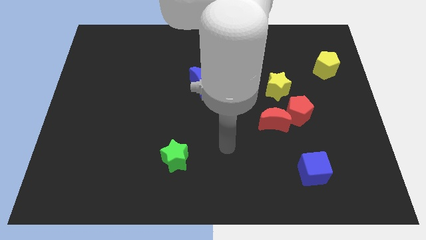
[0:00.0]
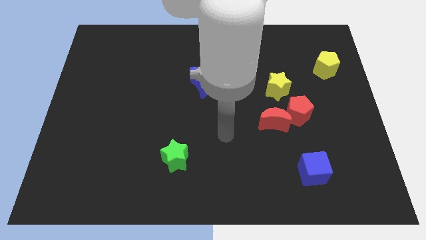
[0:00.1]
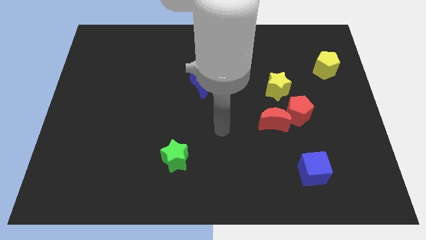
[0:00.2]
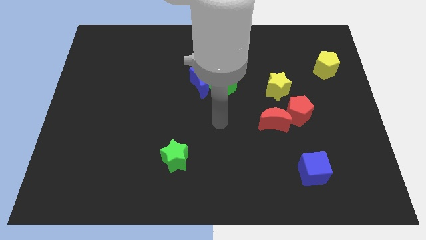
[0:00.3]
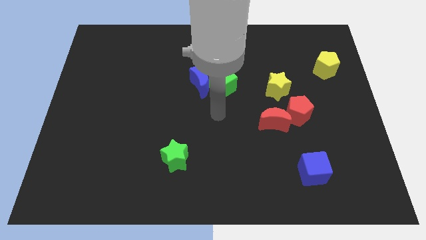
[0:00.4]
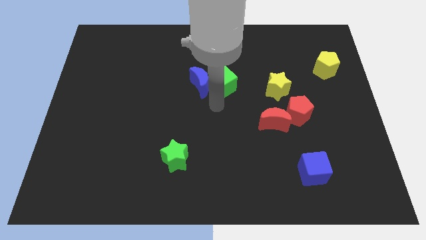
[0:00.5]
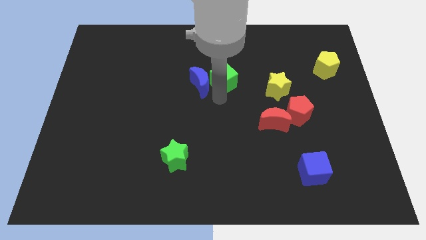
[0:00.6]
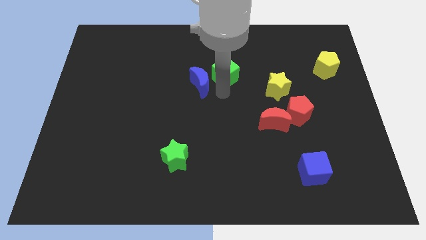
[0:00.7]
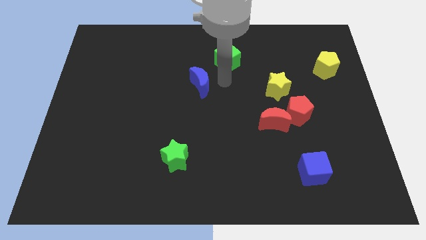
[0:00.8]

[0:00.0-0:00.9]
pull the blue moon apart from the green cube

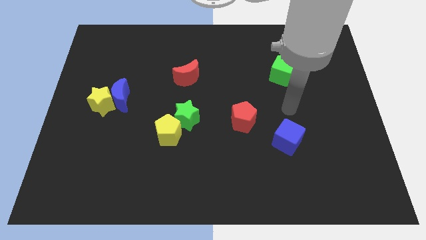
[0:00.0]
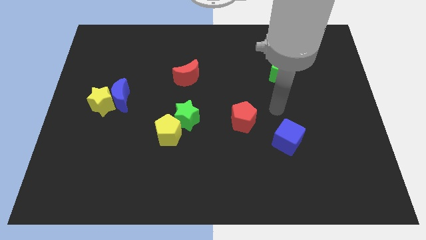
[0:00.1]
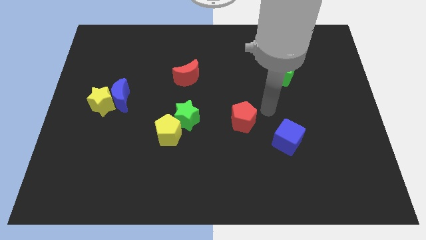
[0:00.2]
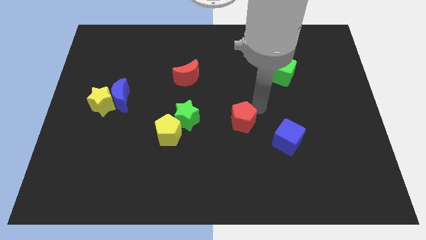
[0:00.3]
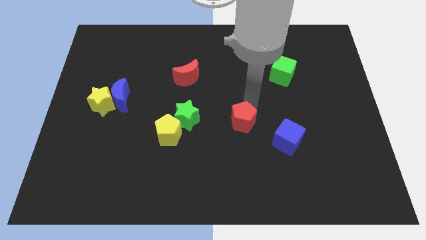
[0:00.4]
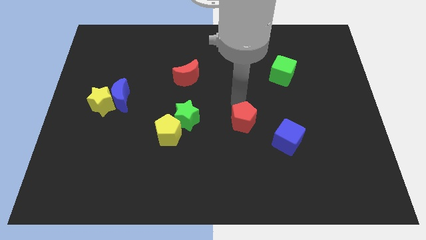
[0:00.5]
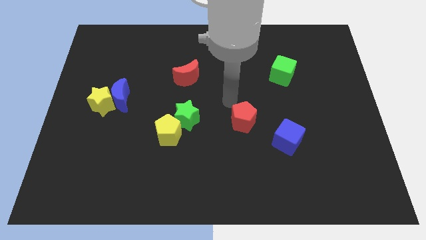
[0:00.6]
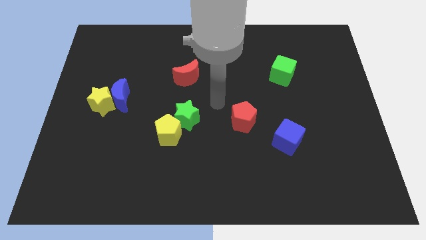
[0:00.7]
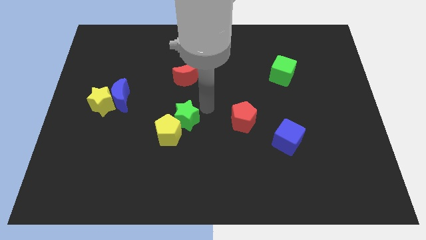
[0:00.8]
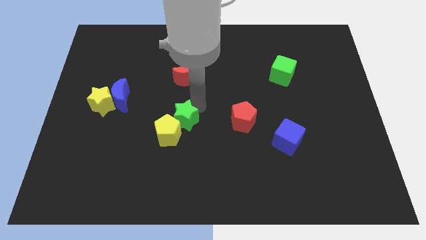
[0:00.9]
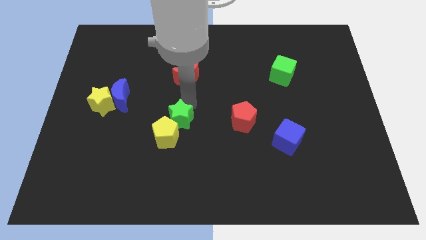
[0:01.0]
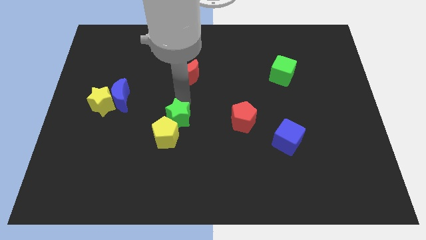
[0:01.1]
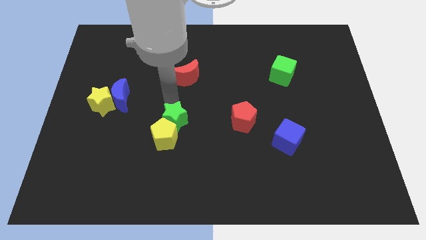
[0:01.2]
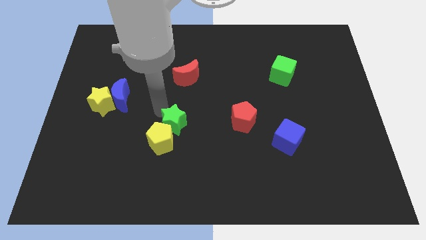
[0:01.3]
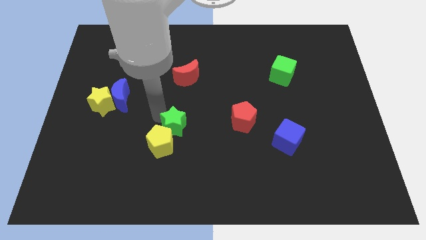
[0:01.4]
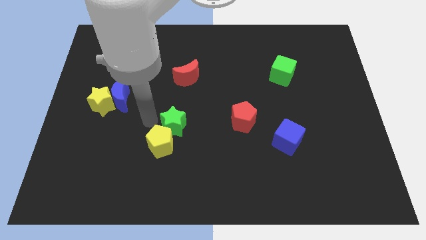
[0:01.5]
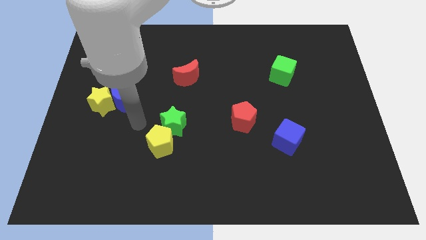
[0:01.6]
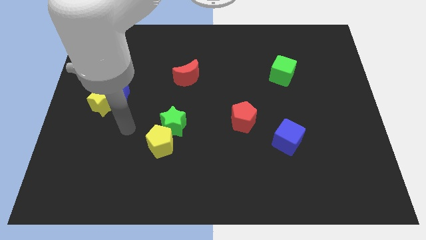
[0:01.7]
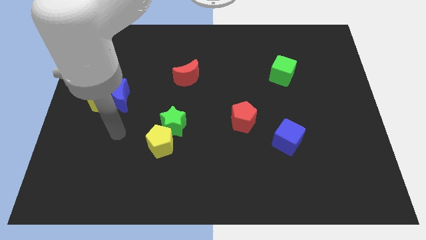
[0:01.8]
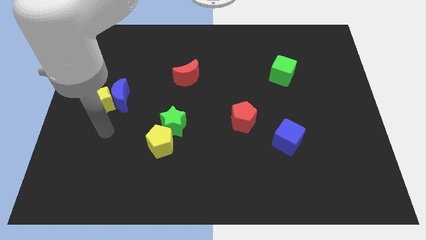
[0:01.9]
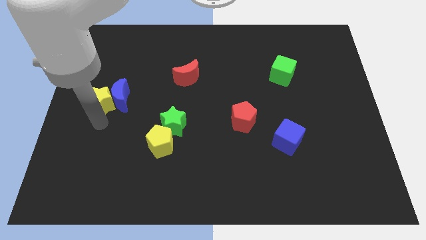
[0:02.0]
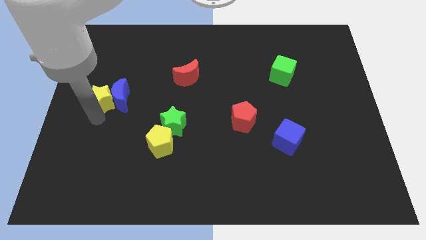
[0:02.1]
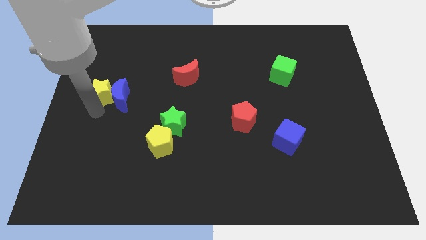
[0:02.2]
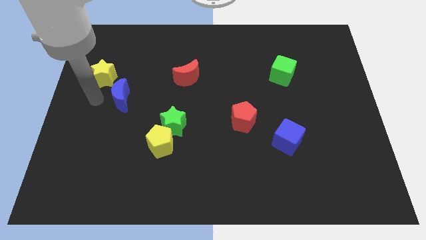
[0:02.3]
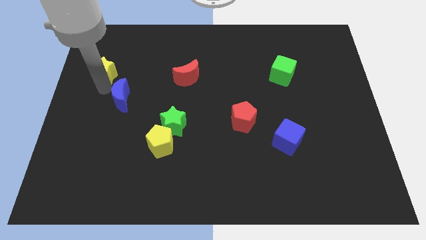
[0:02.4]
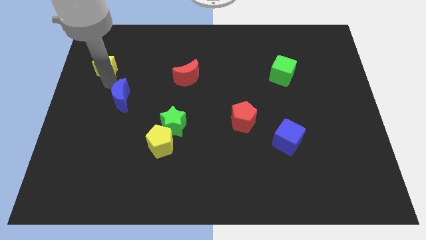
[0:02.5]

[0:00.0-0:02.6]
separate the blue moon from the yellow star

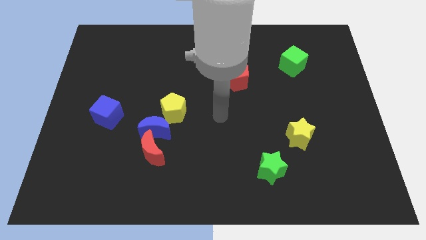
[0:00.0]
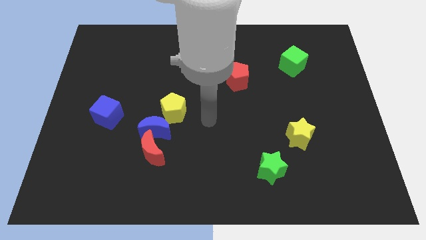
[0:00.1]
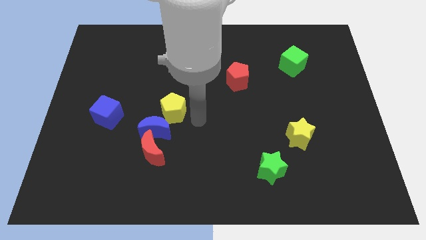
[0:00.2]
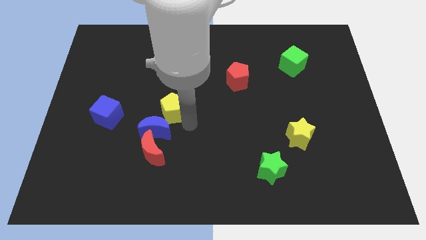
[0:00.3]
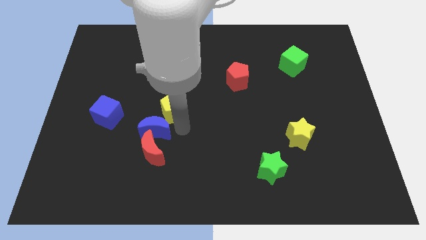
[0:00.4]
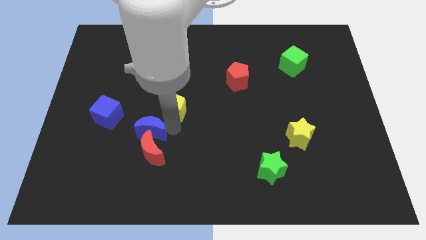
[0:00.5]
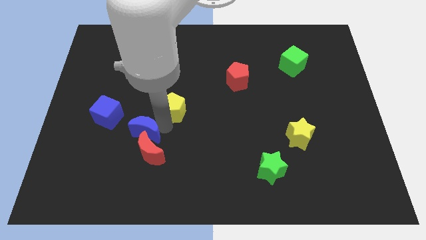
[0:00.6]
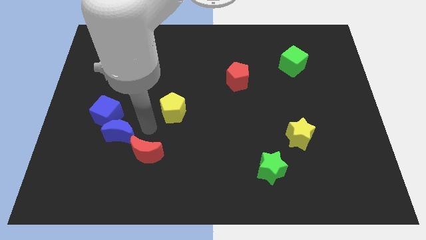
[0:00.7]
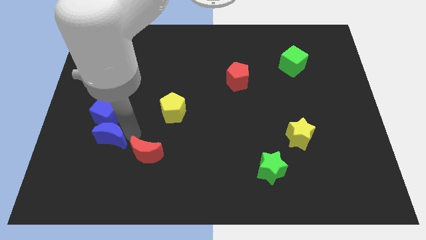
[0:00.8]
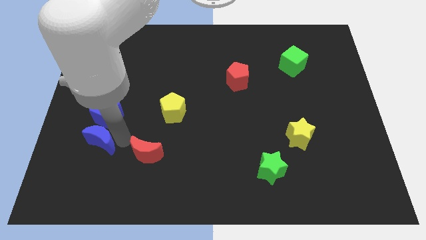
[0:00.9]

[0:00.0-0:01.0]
pull the red moon apart from the blue moon

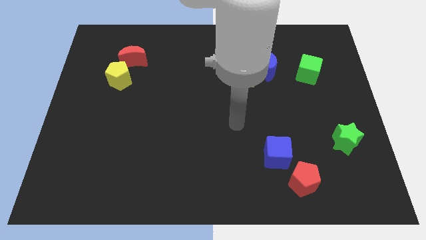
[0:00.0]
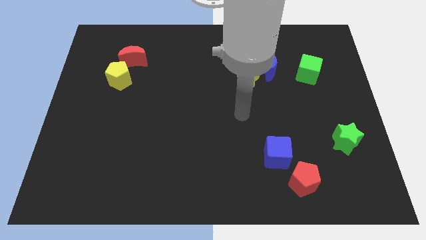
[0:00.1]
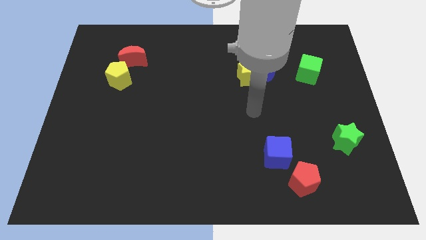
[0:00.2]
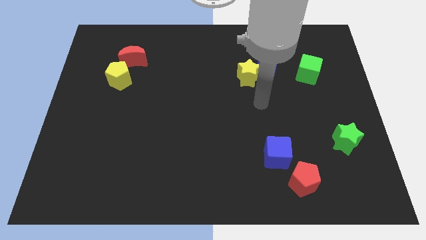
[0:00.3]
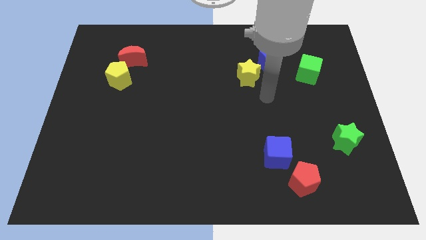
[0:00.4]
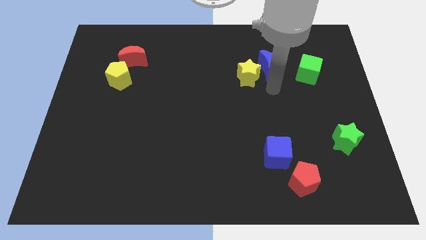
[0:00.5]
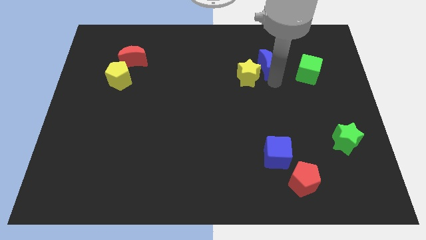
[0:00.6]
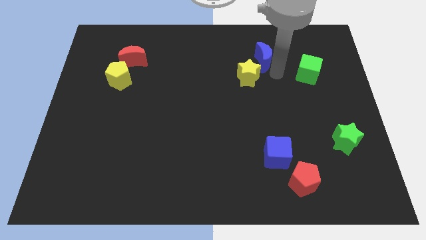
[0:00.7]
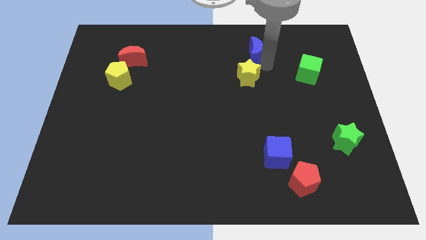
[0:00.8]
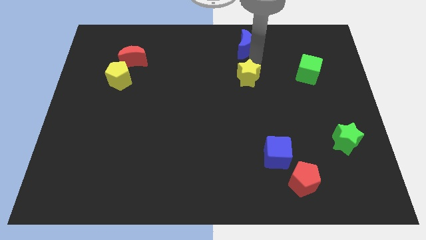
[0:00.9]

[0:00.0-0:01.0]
move the yellow star away from the blue moon

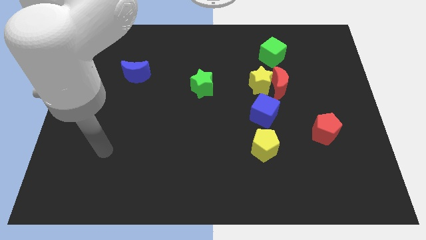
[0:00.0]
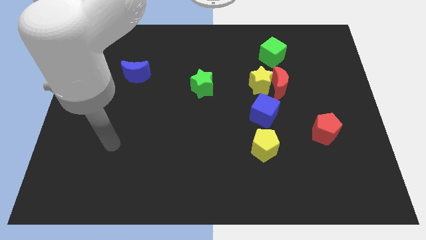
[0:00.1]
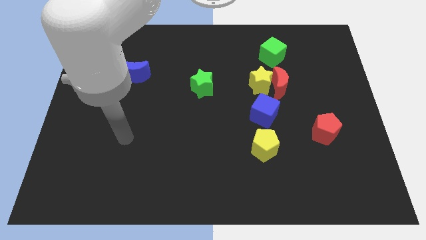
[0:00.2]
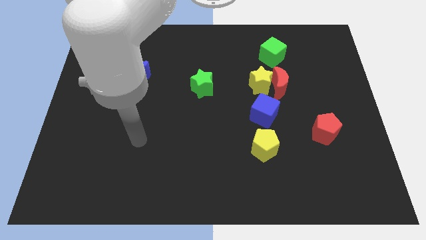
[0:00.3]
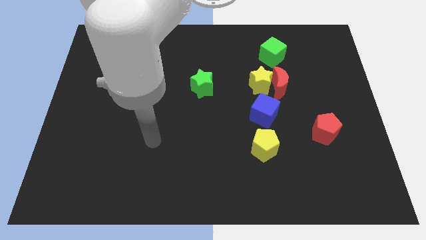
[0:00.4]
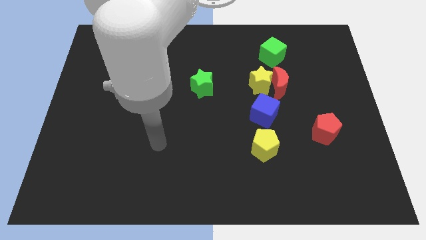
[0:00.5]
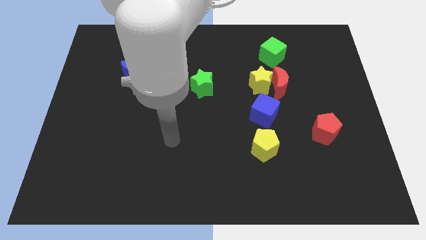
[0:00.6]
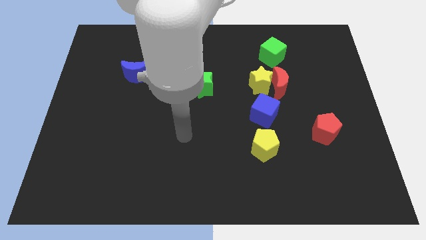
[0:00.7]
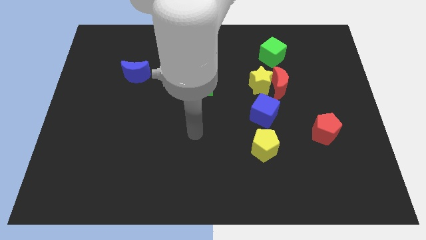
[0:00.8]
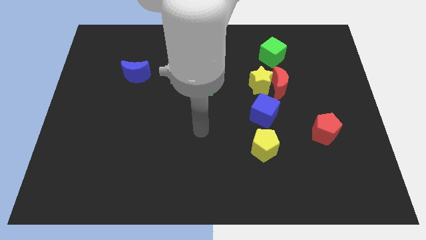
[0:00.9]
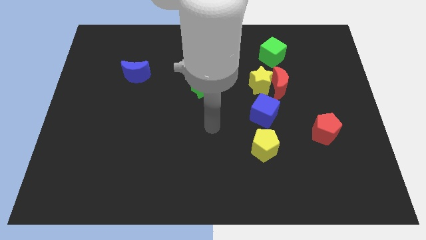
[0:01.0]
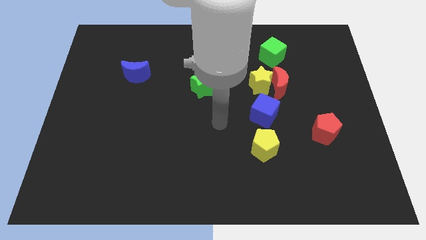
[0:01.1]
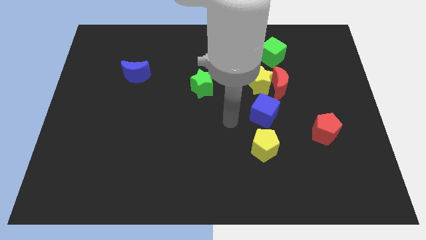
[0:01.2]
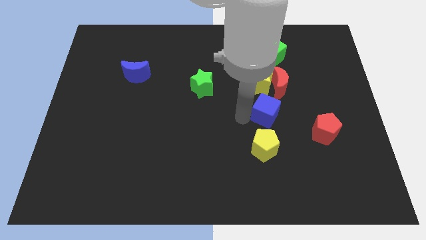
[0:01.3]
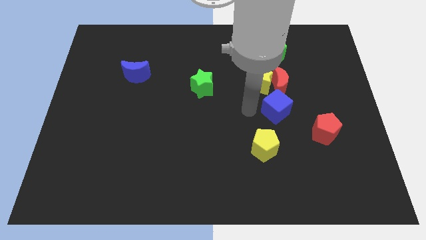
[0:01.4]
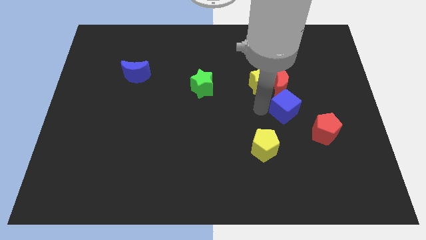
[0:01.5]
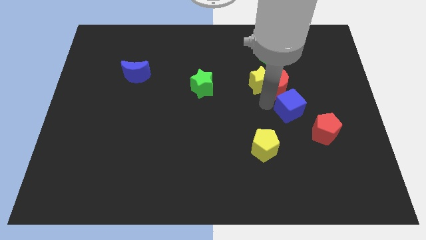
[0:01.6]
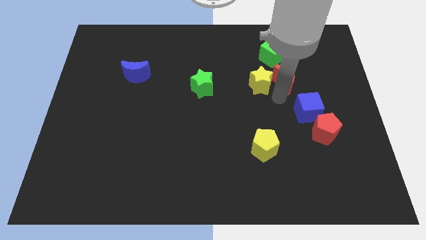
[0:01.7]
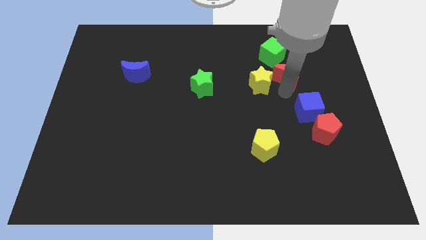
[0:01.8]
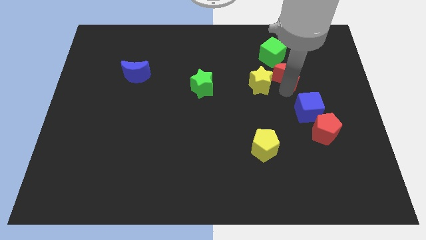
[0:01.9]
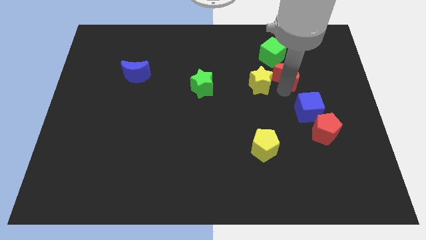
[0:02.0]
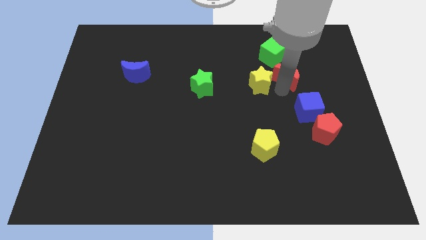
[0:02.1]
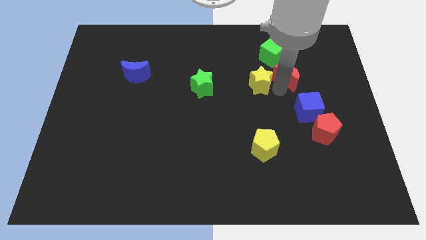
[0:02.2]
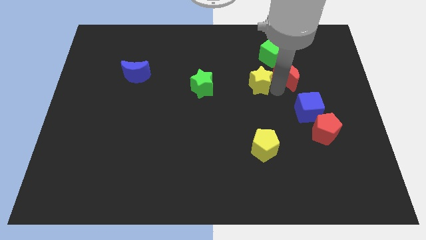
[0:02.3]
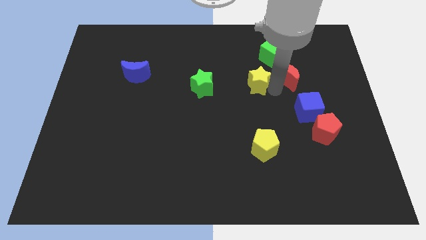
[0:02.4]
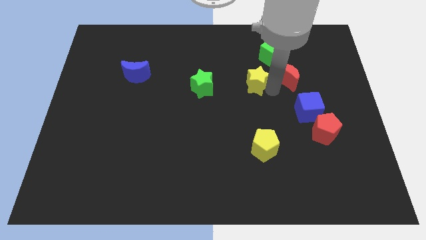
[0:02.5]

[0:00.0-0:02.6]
separate the yellow star from the red moon and blue cube

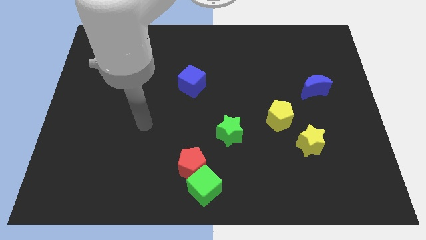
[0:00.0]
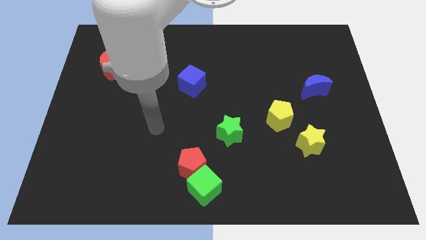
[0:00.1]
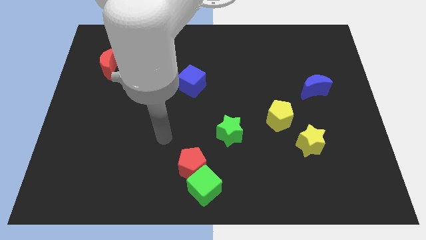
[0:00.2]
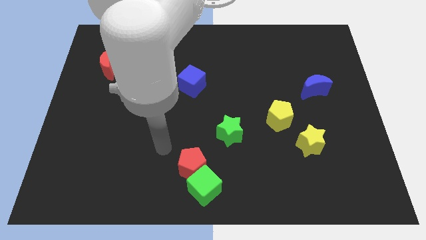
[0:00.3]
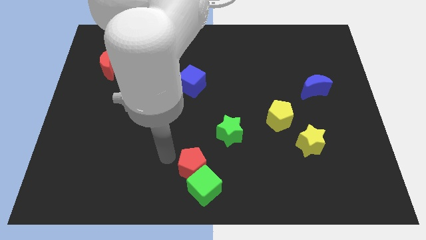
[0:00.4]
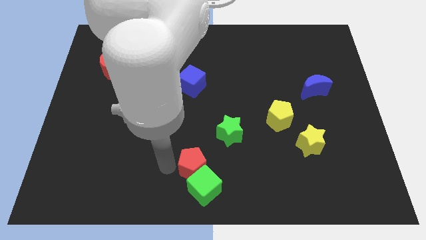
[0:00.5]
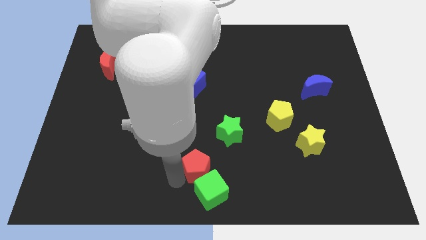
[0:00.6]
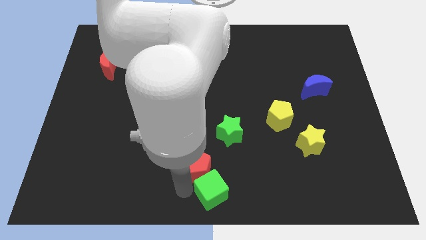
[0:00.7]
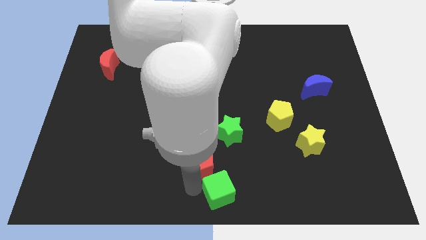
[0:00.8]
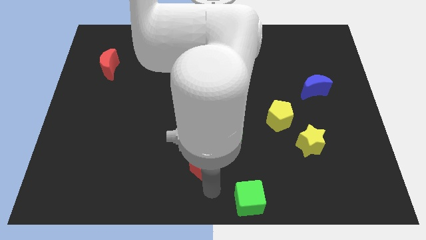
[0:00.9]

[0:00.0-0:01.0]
separate the red pentagon from the green cube

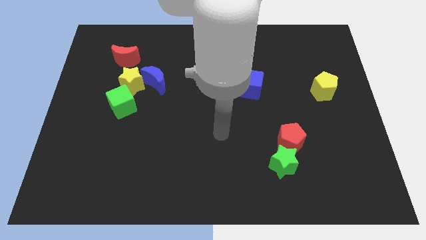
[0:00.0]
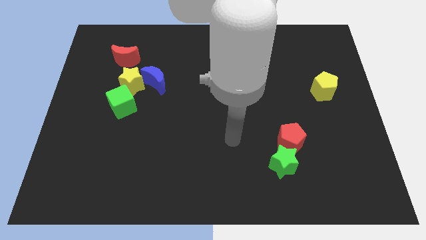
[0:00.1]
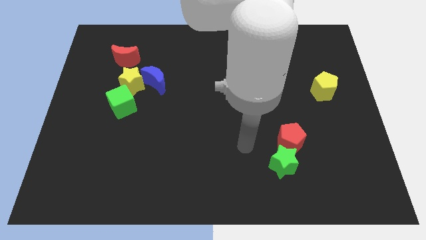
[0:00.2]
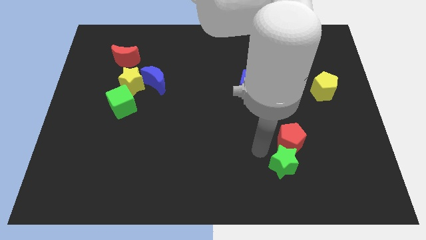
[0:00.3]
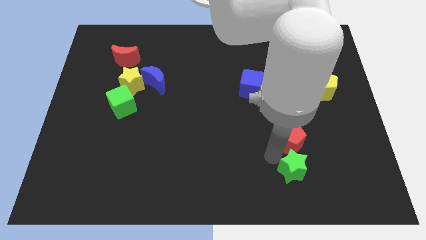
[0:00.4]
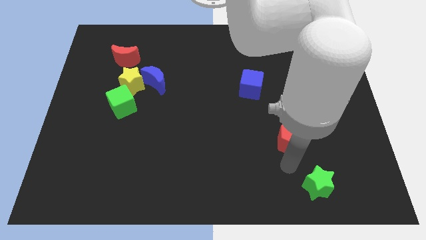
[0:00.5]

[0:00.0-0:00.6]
separate the red pentagon from the green star
